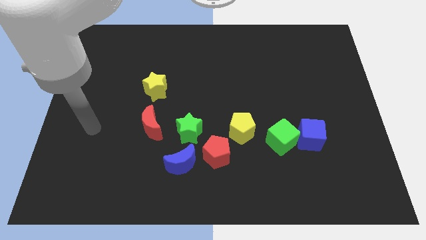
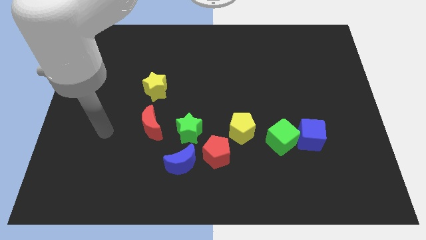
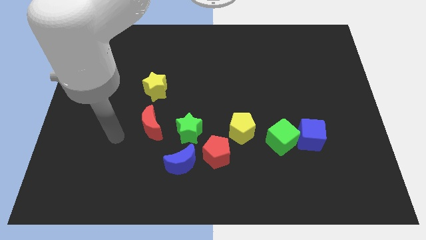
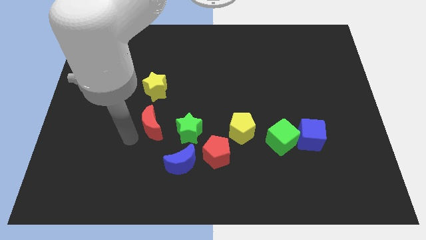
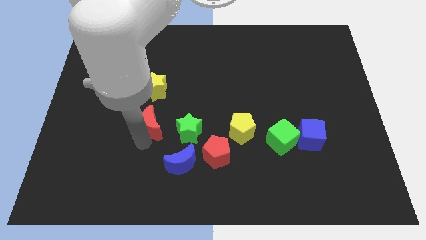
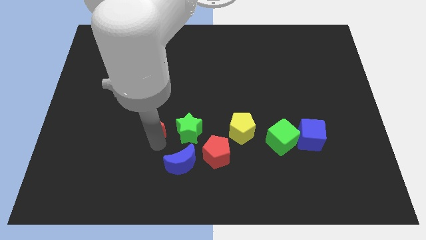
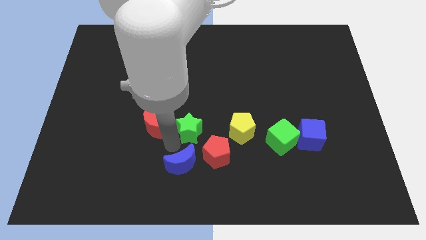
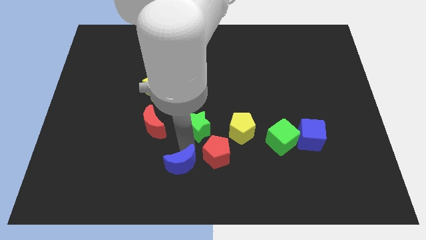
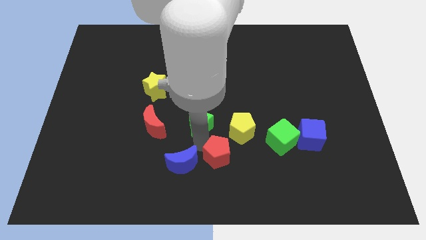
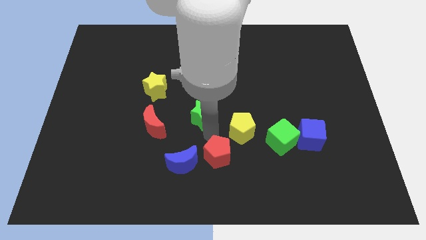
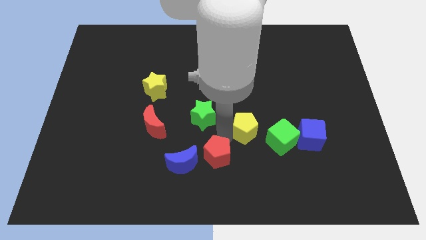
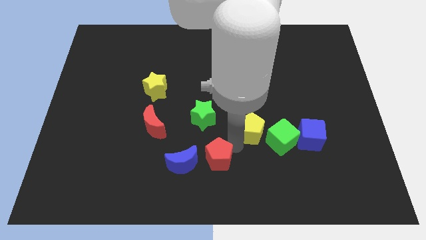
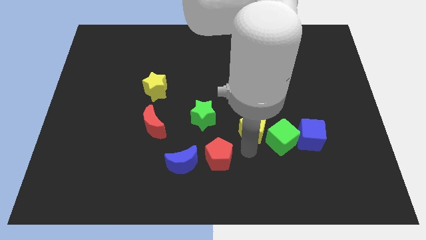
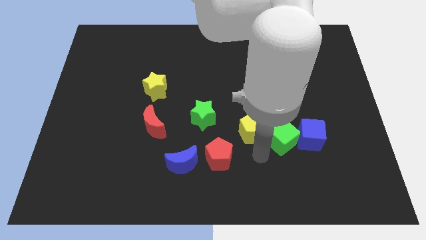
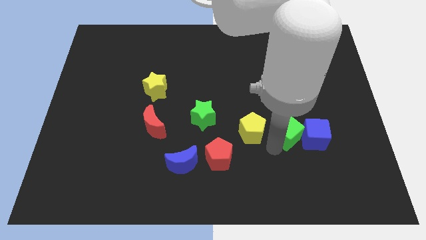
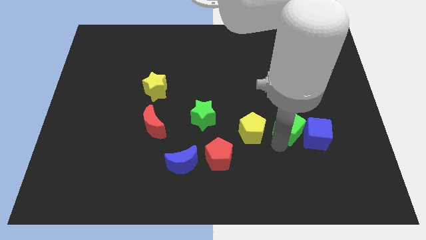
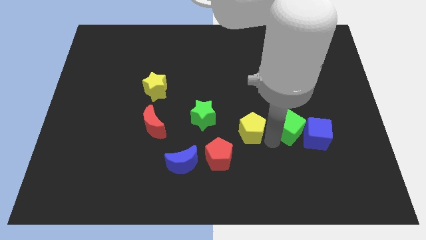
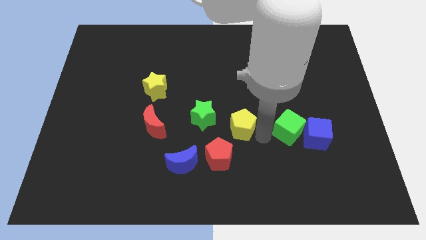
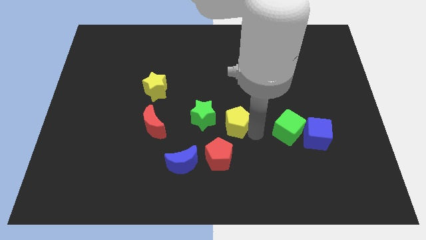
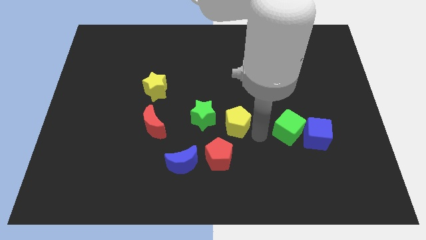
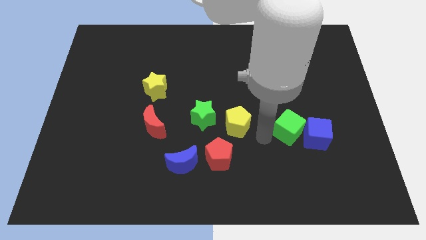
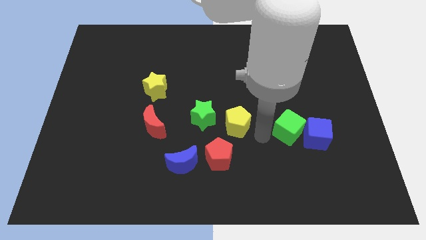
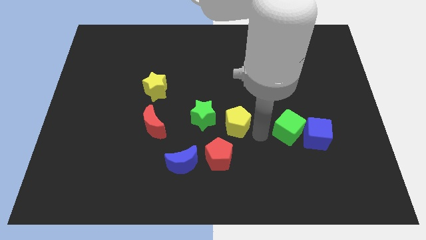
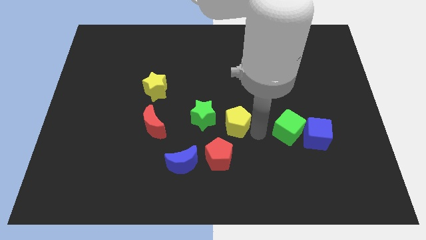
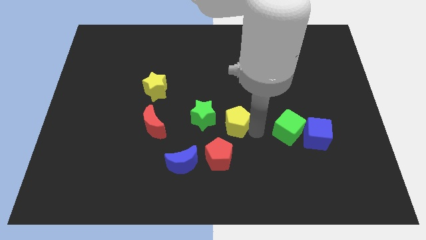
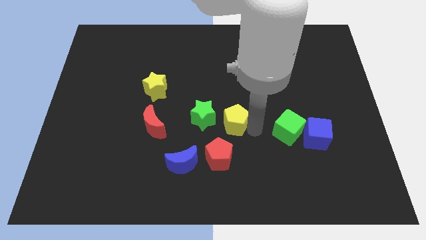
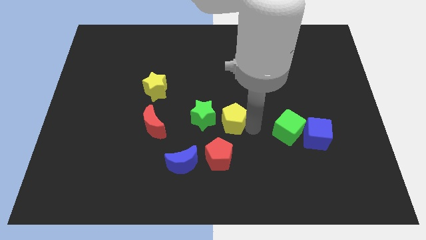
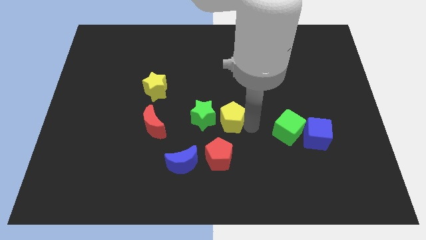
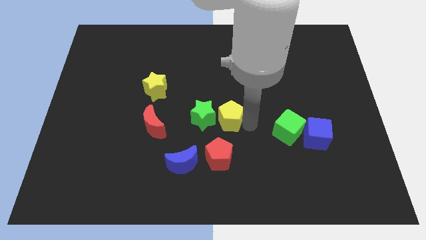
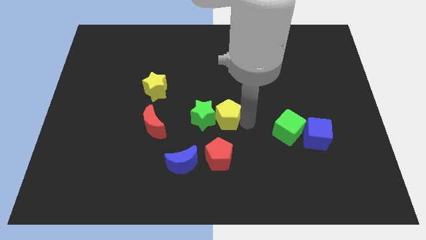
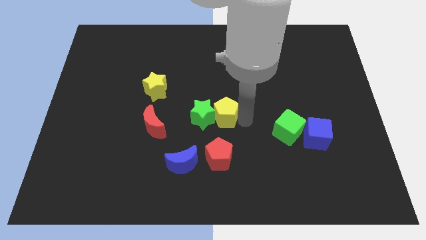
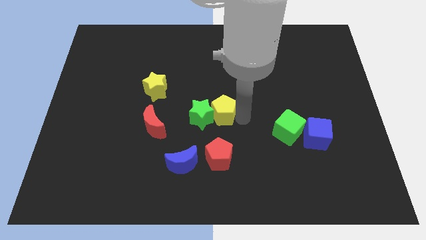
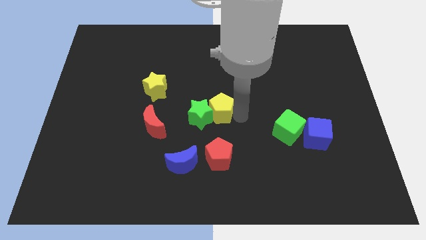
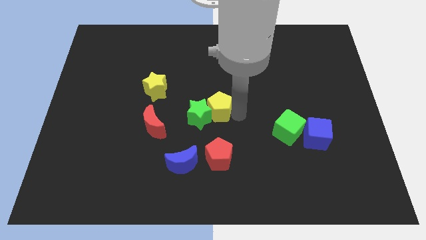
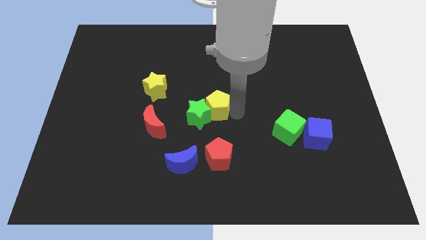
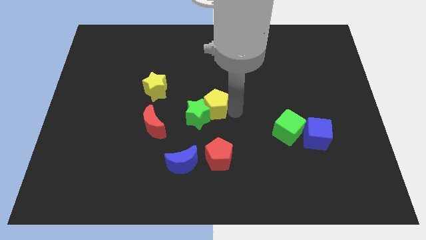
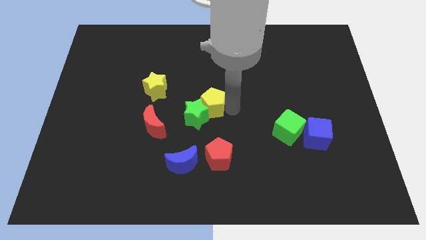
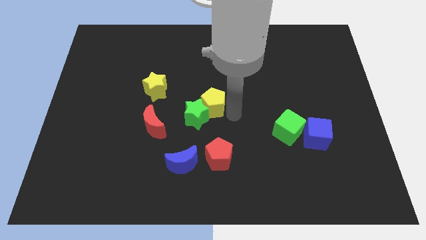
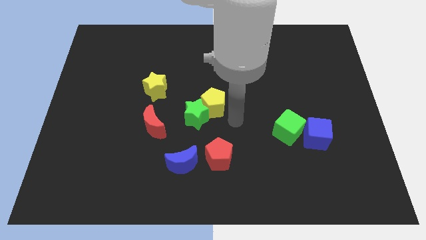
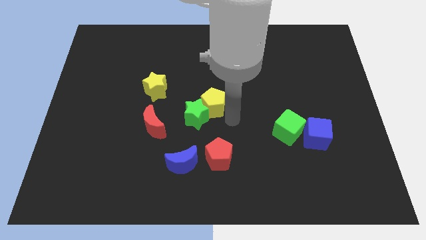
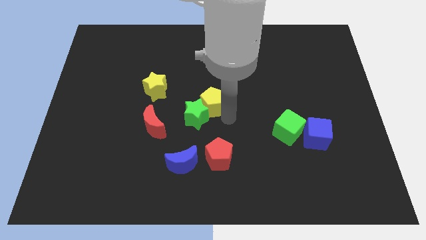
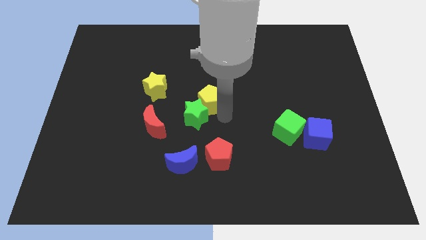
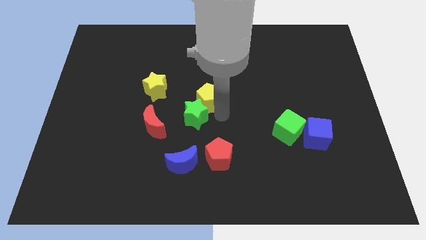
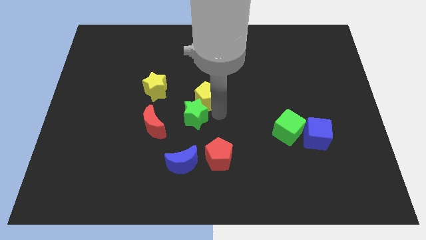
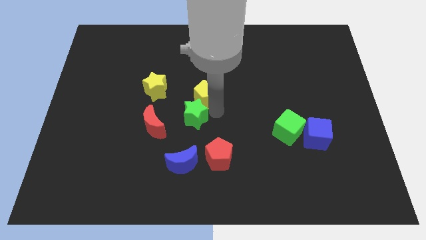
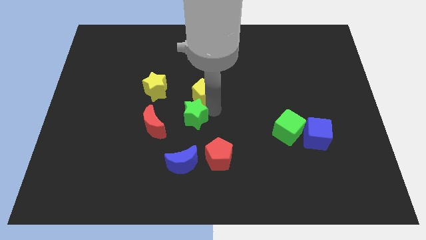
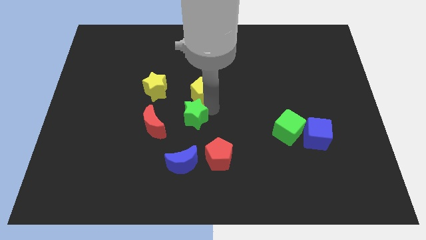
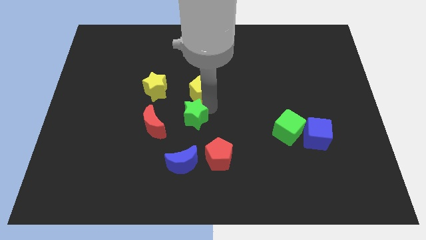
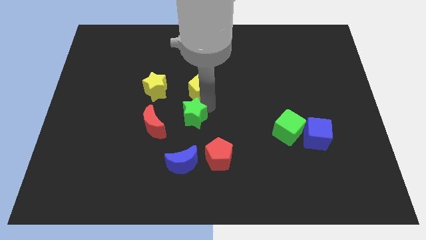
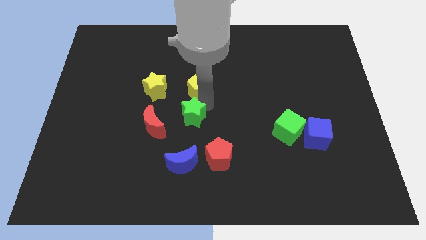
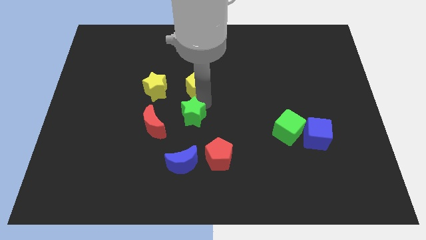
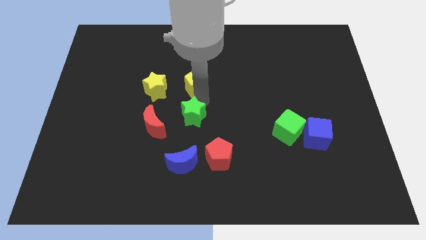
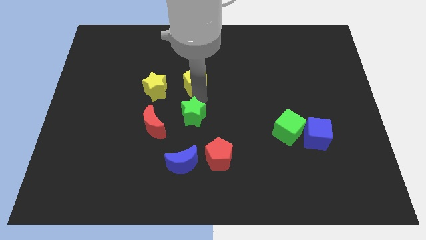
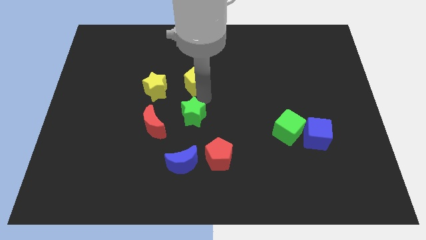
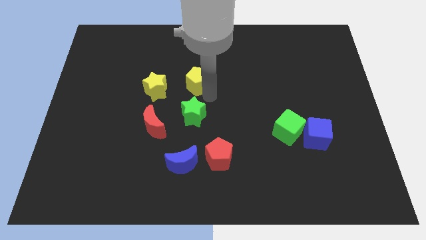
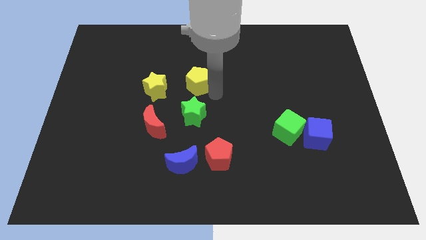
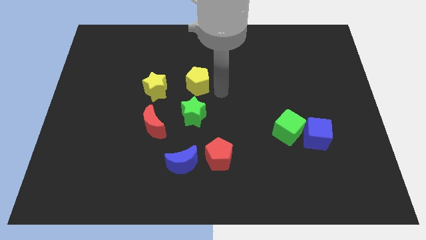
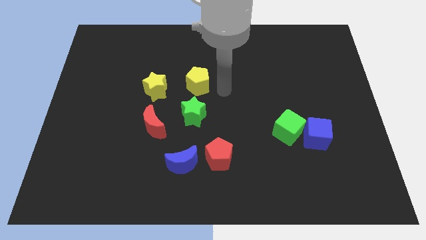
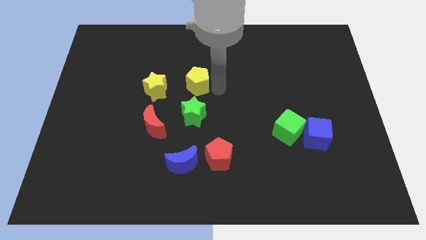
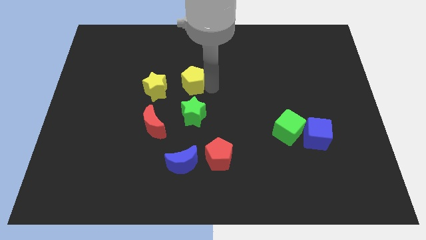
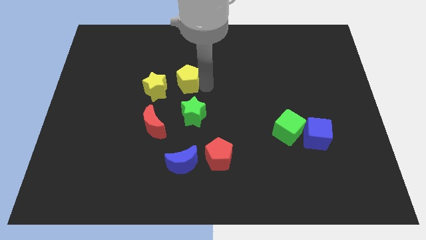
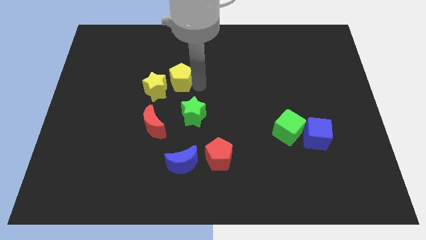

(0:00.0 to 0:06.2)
push the yellow pentagon up and then to the left

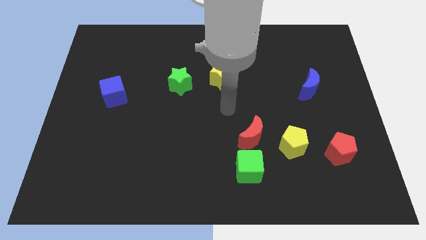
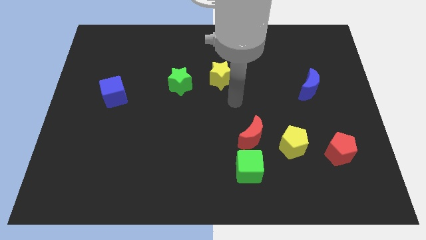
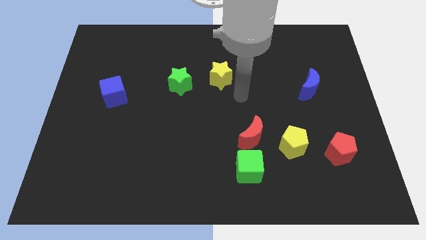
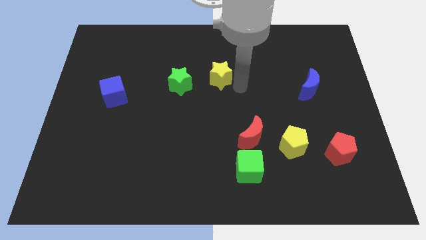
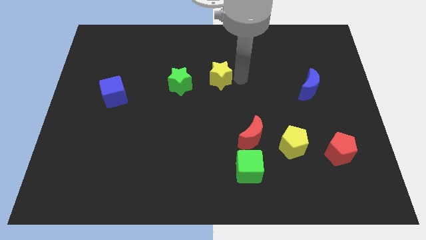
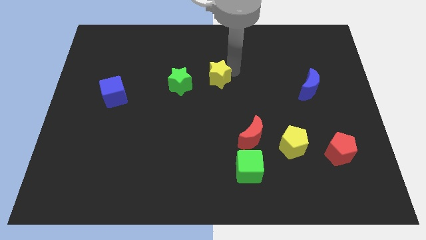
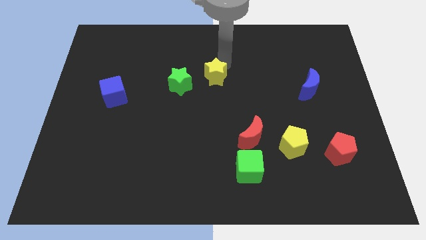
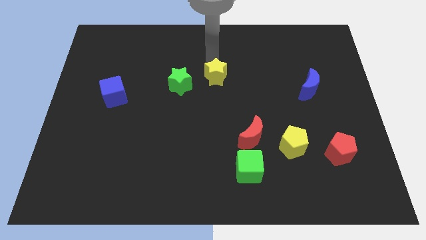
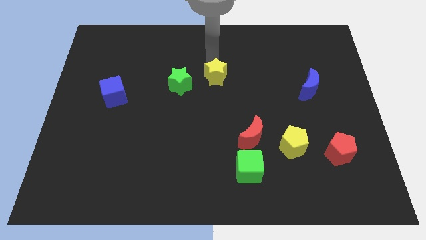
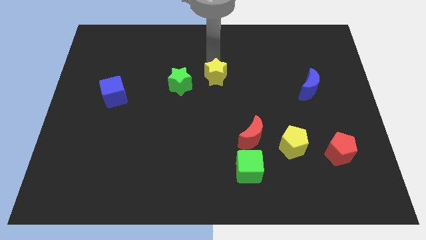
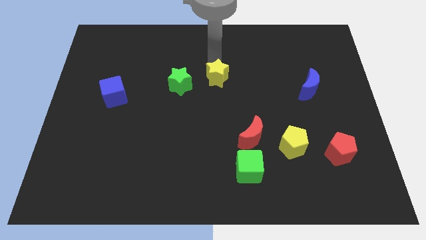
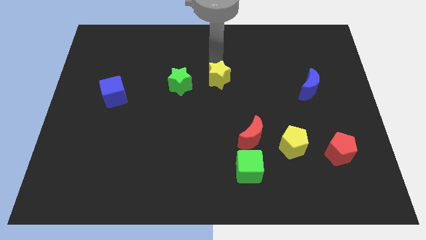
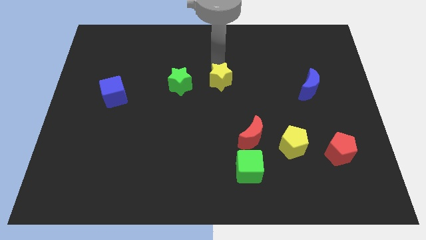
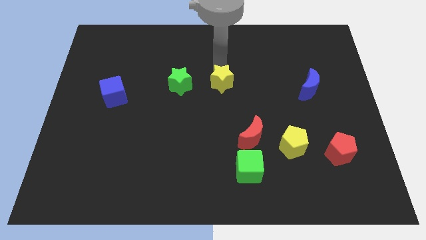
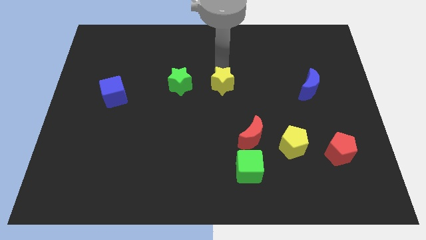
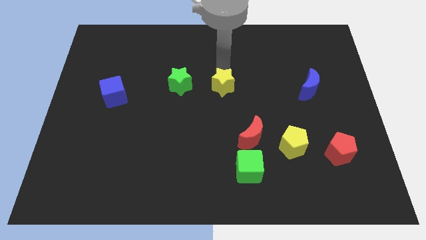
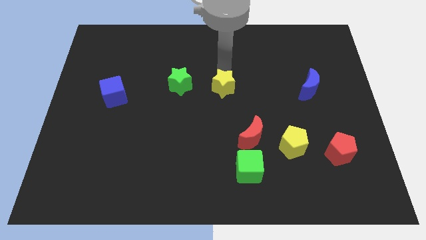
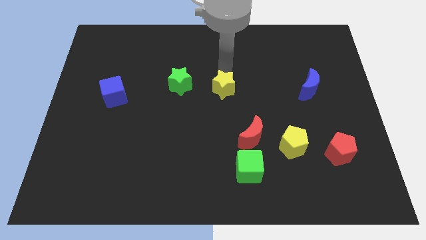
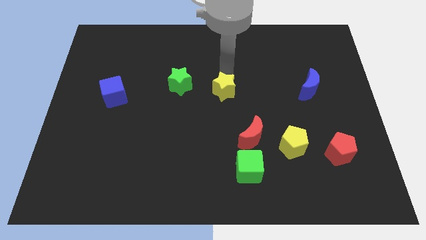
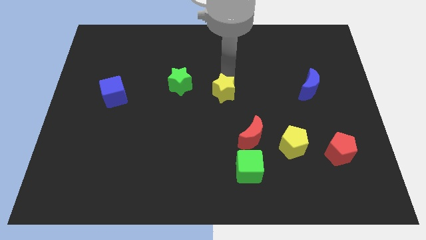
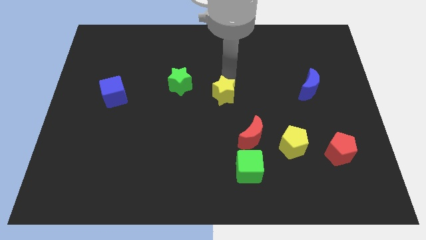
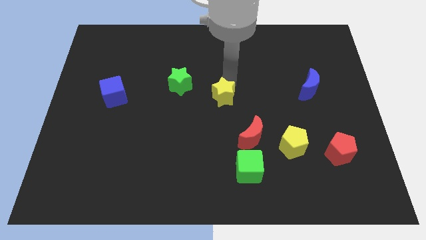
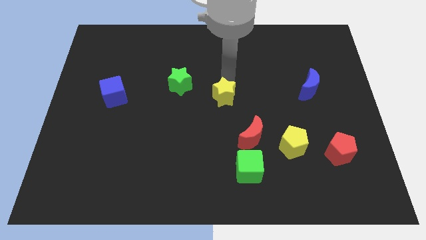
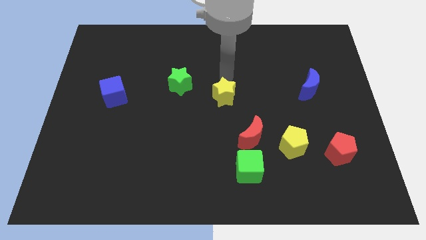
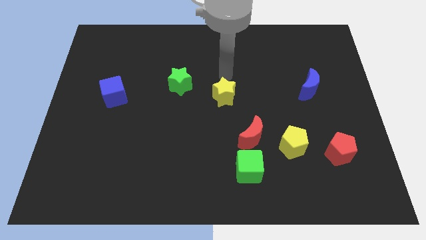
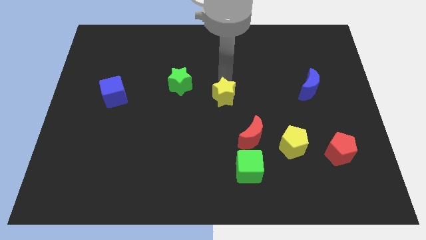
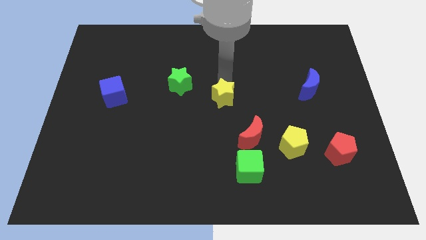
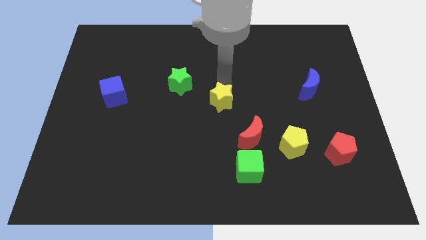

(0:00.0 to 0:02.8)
slide the yellow star down a little
